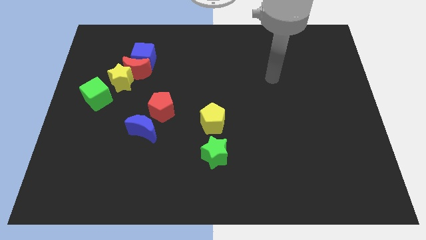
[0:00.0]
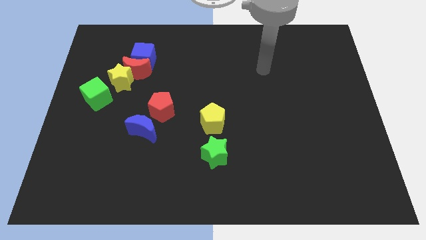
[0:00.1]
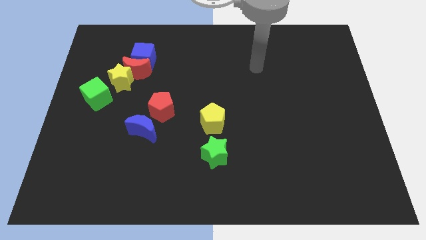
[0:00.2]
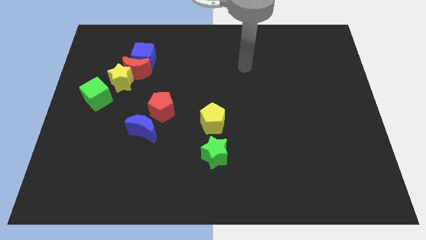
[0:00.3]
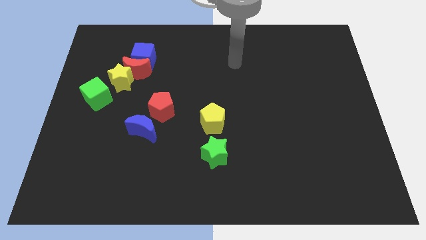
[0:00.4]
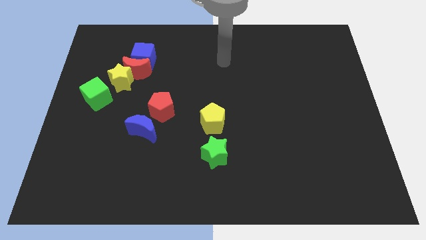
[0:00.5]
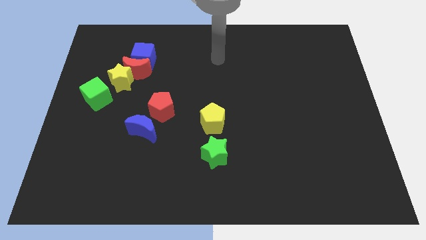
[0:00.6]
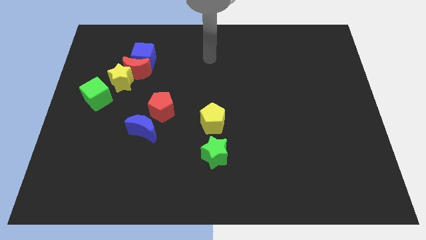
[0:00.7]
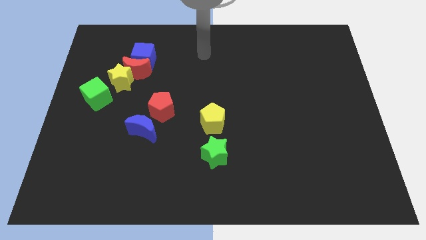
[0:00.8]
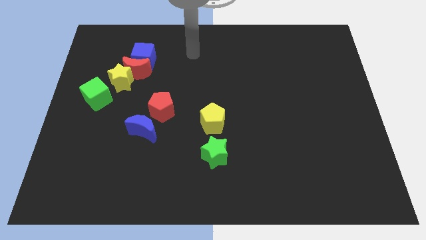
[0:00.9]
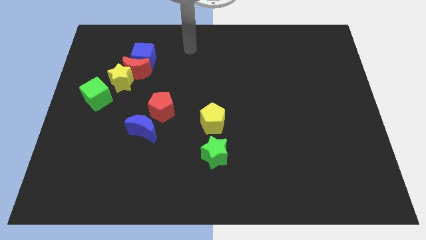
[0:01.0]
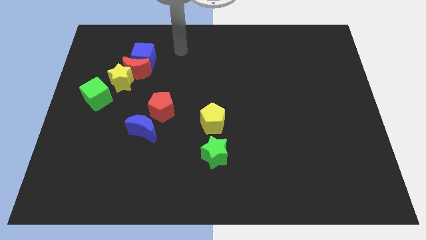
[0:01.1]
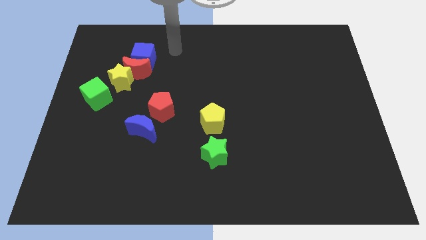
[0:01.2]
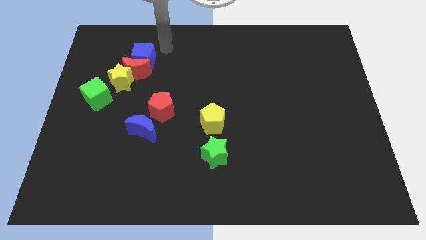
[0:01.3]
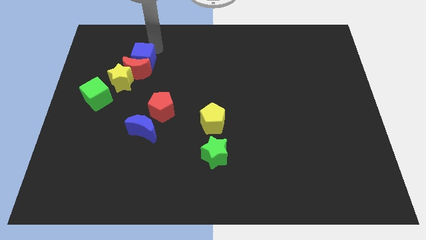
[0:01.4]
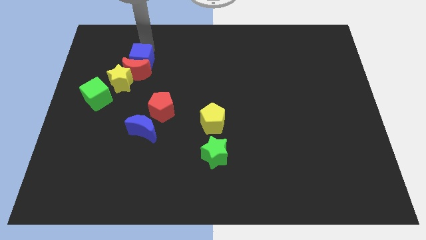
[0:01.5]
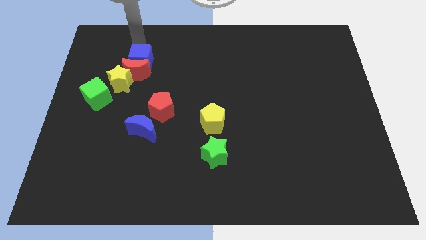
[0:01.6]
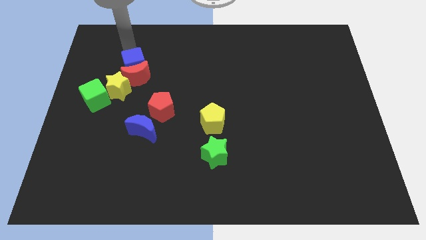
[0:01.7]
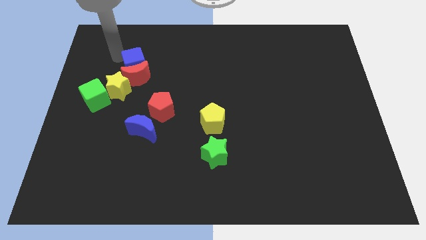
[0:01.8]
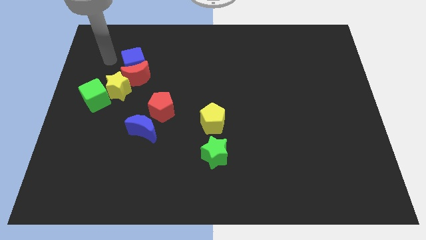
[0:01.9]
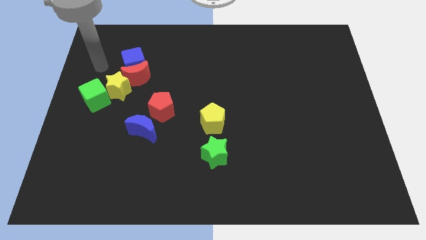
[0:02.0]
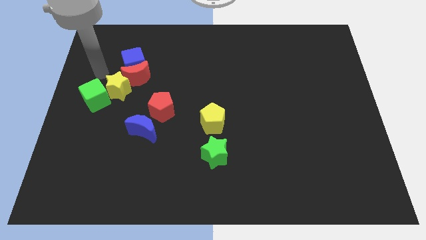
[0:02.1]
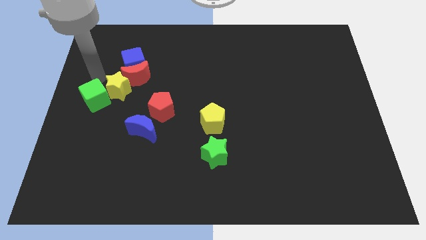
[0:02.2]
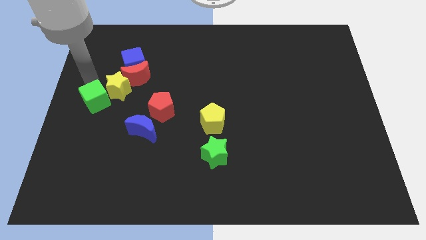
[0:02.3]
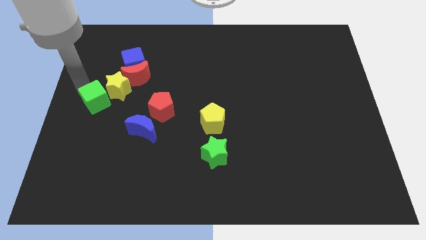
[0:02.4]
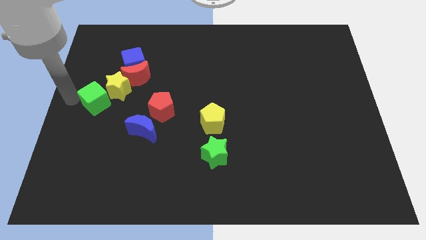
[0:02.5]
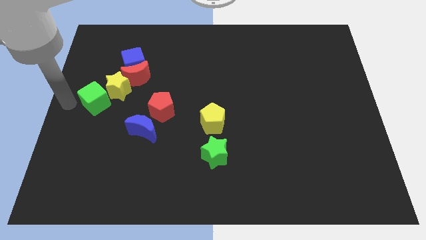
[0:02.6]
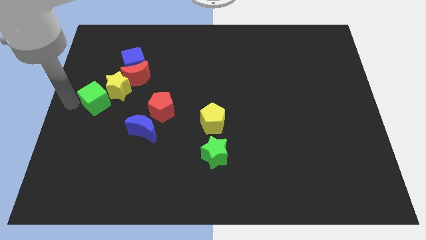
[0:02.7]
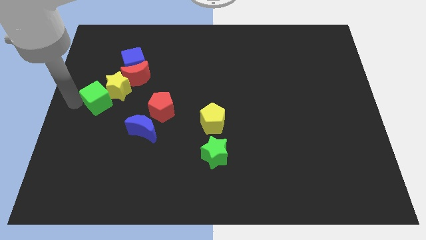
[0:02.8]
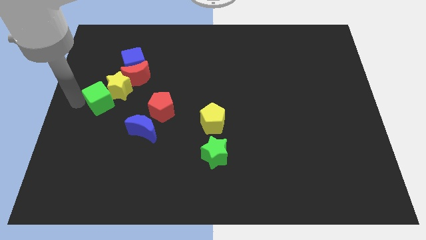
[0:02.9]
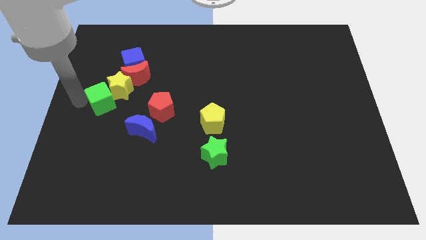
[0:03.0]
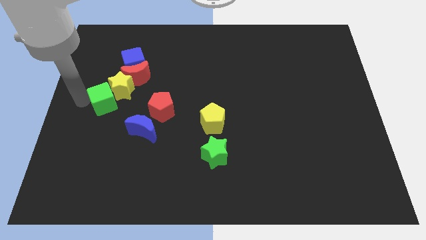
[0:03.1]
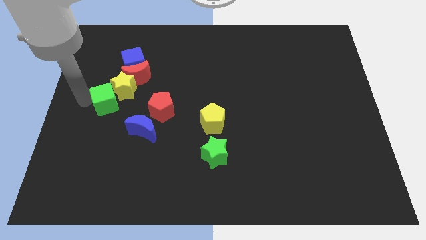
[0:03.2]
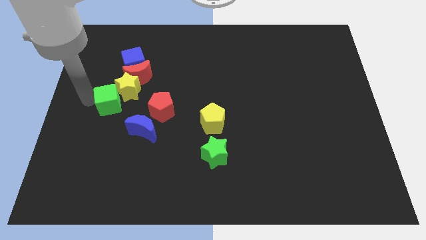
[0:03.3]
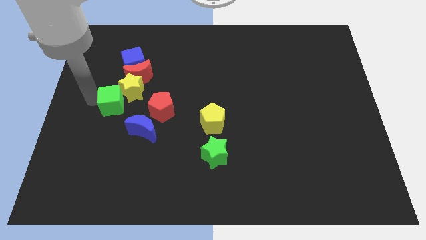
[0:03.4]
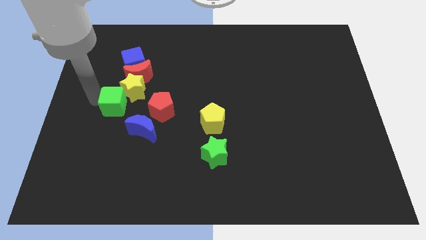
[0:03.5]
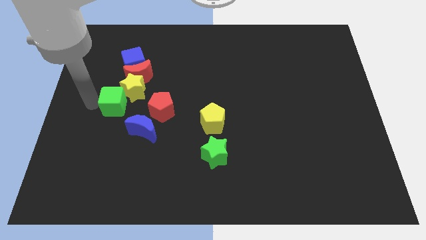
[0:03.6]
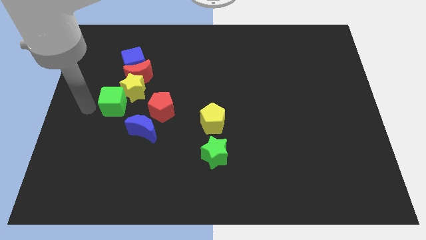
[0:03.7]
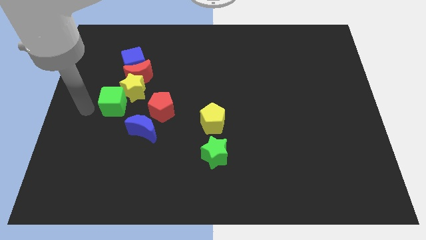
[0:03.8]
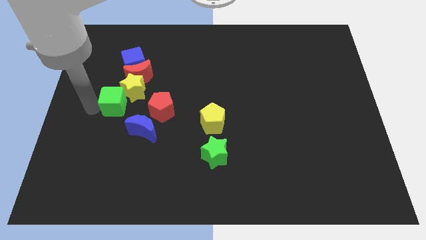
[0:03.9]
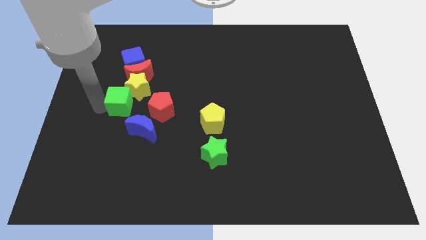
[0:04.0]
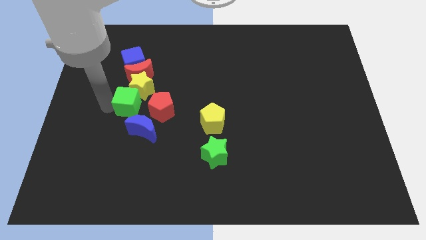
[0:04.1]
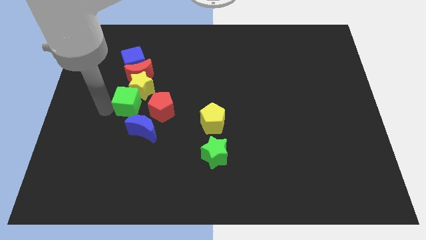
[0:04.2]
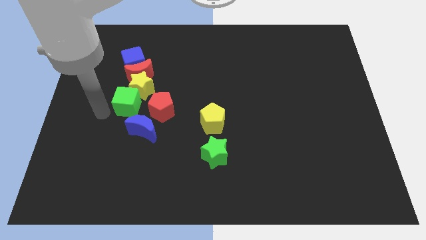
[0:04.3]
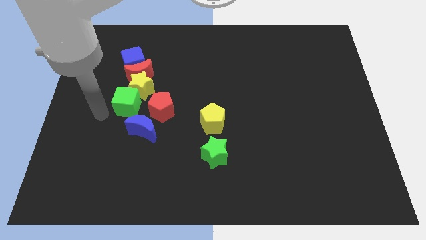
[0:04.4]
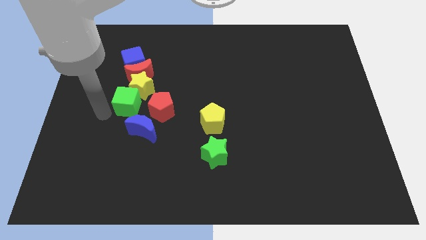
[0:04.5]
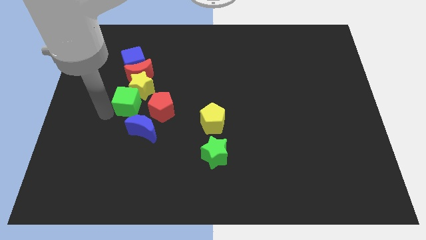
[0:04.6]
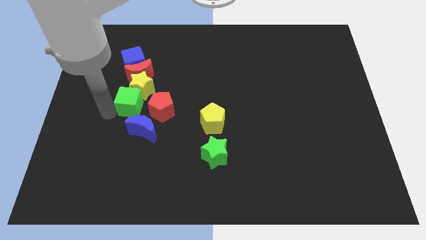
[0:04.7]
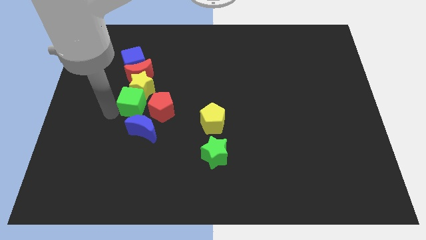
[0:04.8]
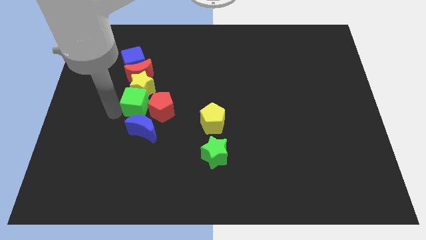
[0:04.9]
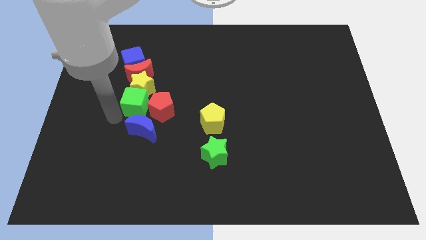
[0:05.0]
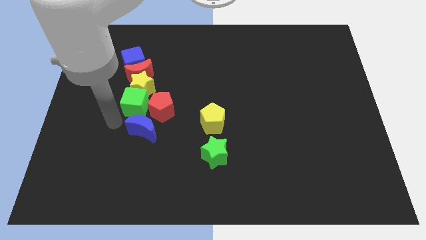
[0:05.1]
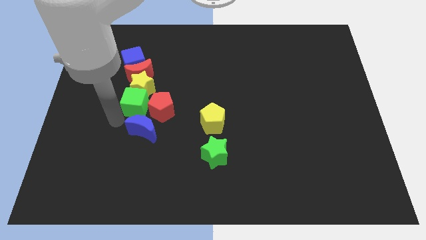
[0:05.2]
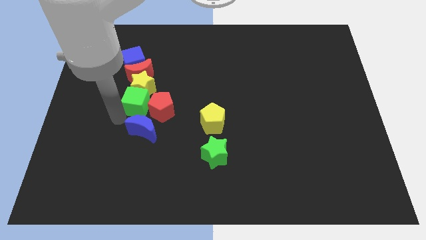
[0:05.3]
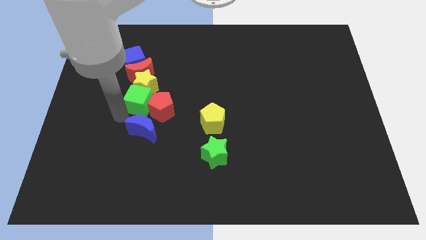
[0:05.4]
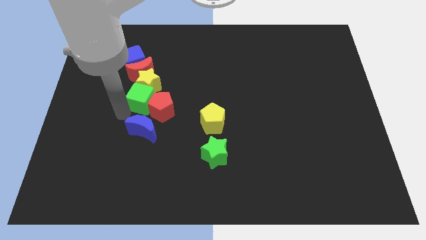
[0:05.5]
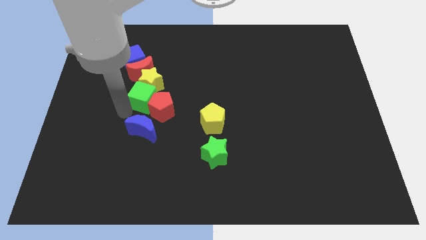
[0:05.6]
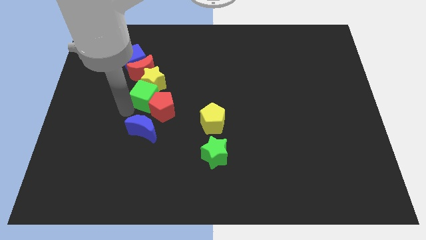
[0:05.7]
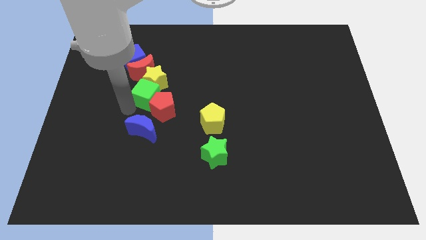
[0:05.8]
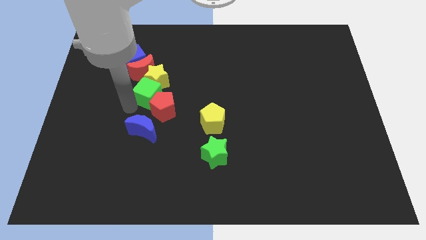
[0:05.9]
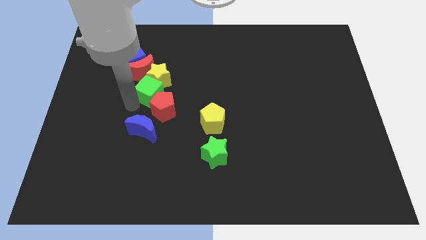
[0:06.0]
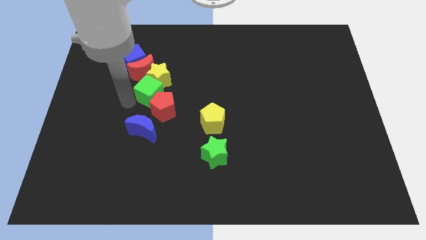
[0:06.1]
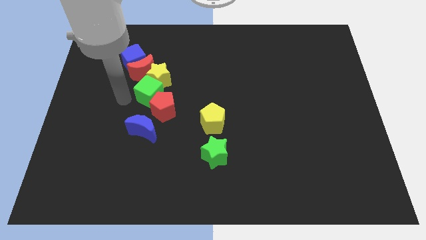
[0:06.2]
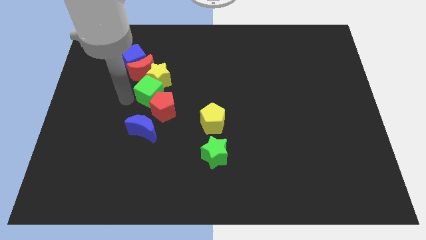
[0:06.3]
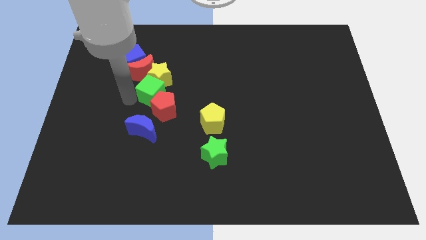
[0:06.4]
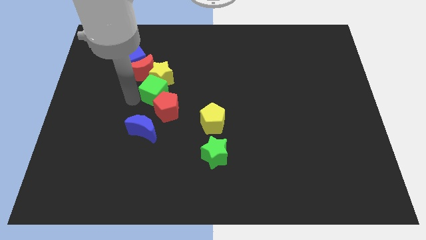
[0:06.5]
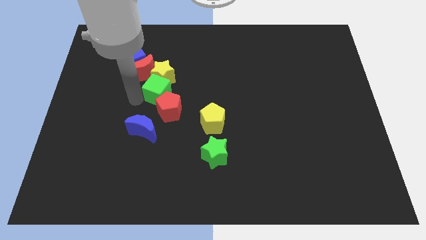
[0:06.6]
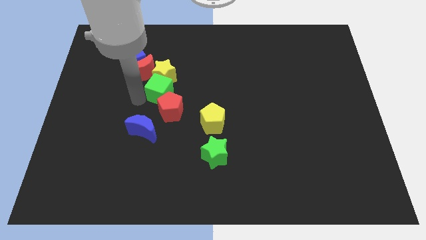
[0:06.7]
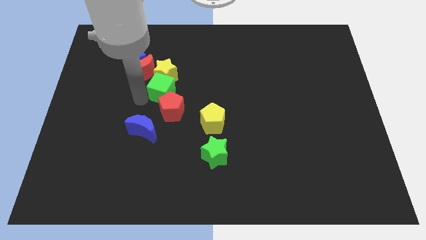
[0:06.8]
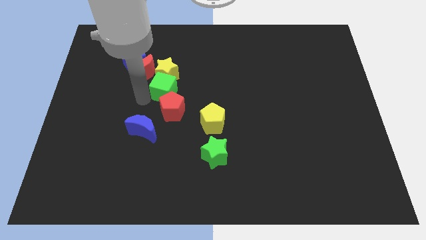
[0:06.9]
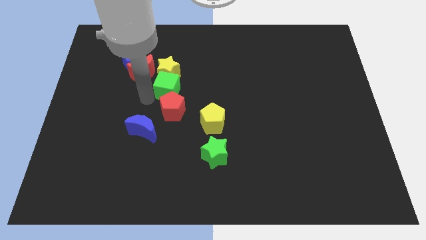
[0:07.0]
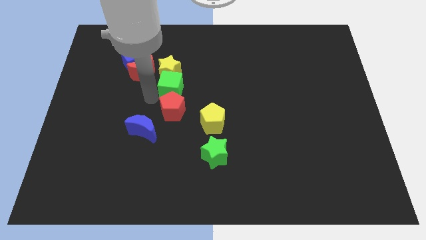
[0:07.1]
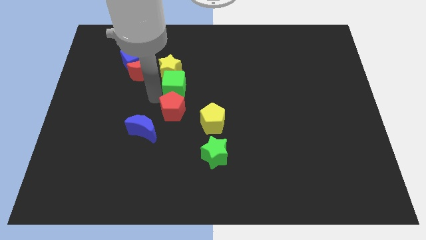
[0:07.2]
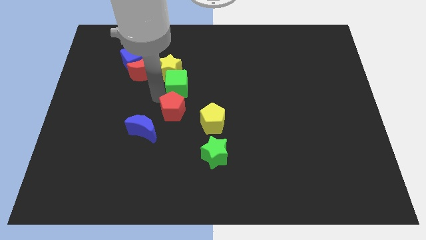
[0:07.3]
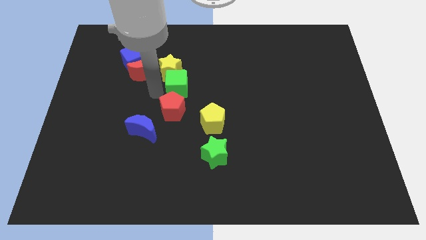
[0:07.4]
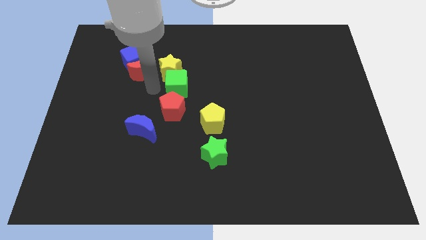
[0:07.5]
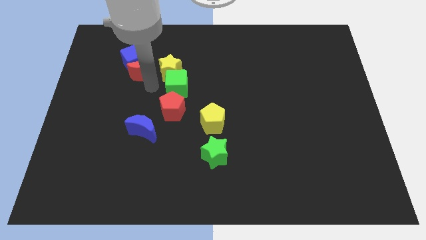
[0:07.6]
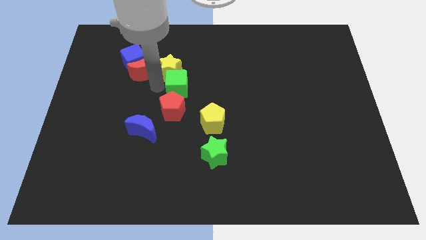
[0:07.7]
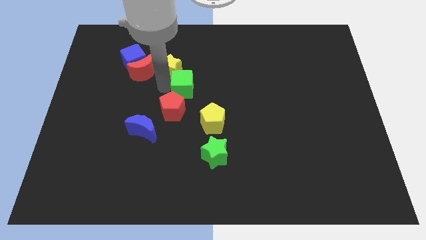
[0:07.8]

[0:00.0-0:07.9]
move the green cube right
